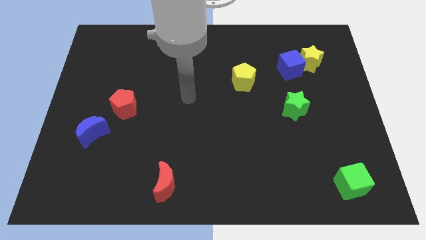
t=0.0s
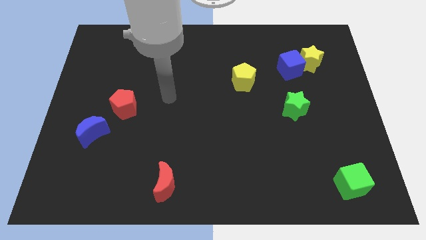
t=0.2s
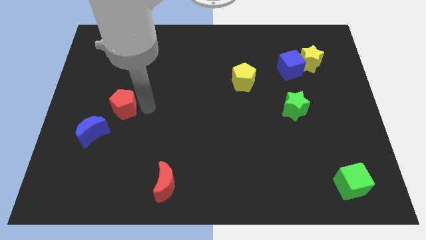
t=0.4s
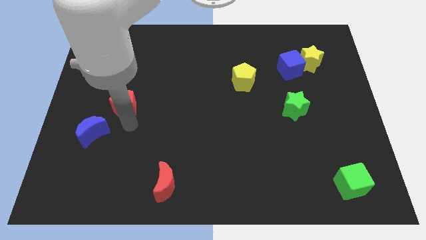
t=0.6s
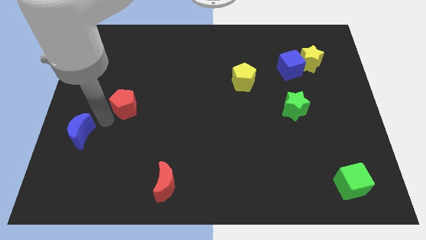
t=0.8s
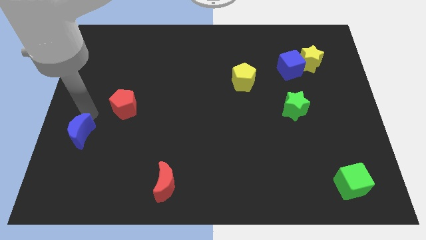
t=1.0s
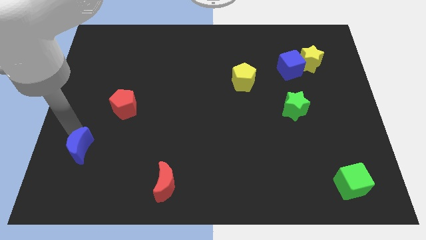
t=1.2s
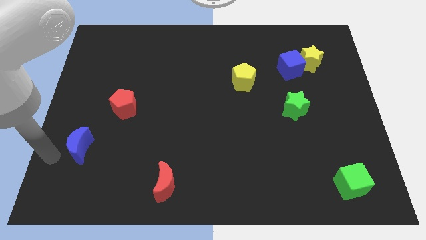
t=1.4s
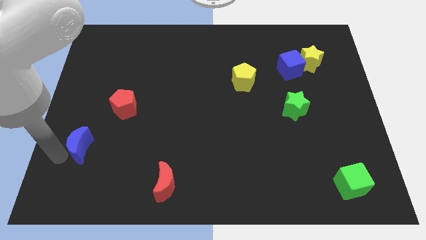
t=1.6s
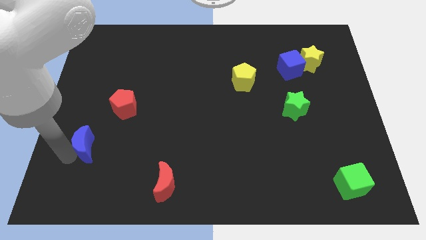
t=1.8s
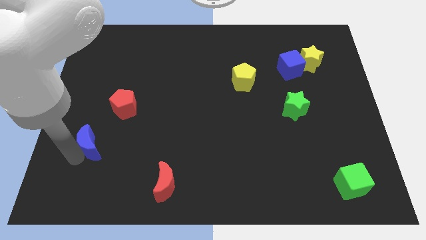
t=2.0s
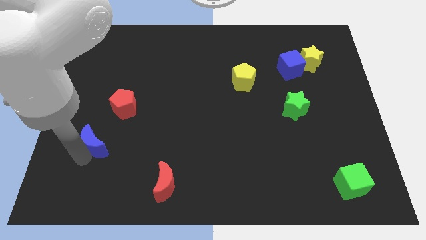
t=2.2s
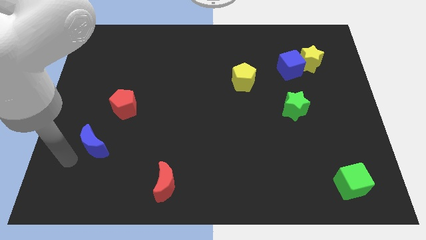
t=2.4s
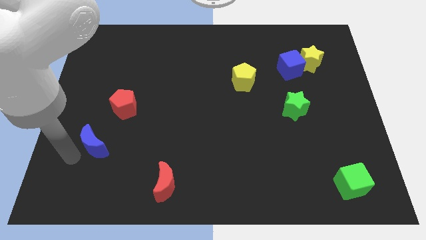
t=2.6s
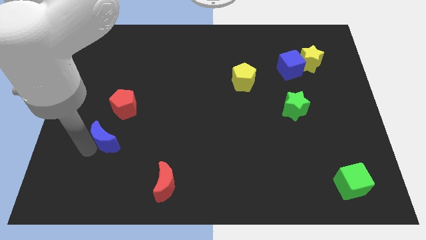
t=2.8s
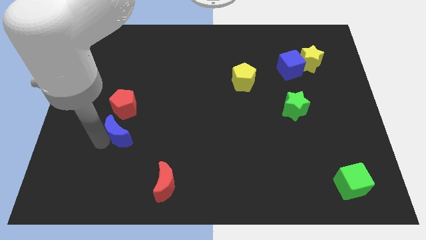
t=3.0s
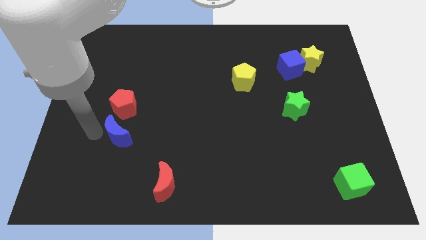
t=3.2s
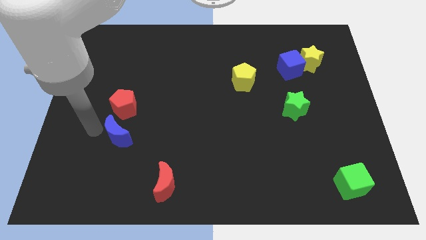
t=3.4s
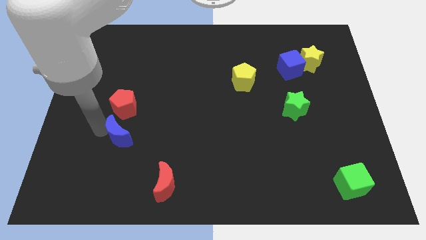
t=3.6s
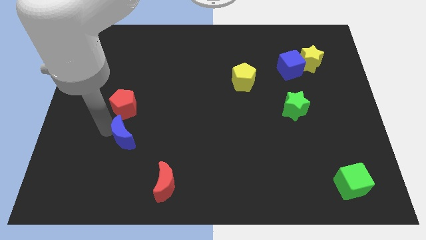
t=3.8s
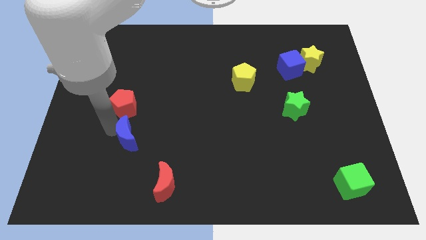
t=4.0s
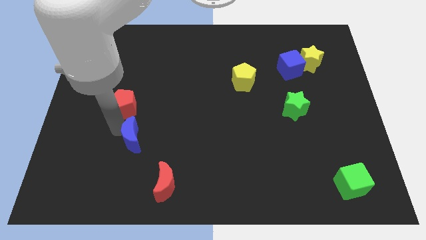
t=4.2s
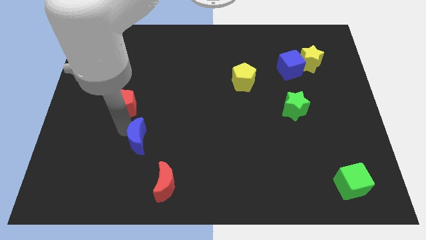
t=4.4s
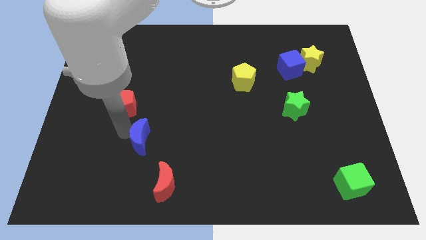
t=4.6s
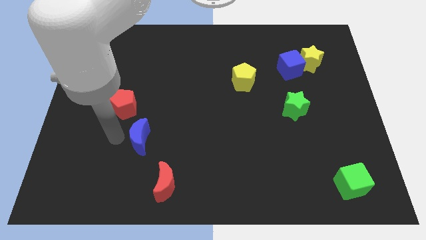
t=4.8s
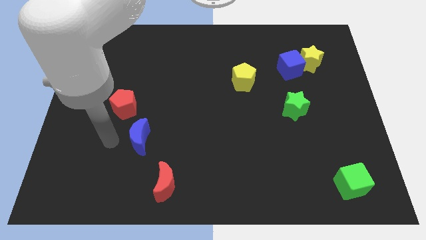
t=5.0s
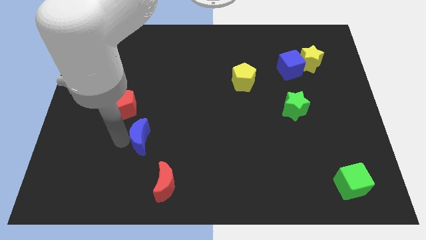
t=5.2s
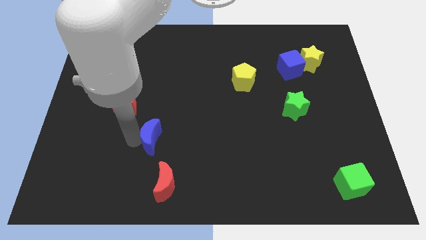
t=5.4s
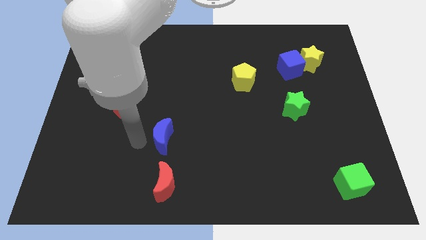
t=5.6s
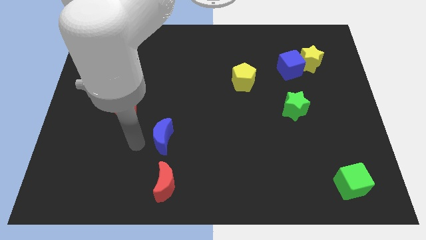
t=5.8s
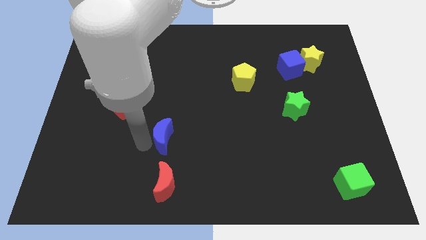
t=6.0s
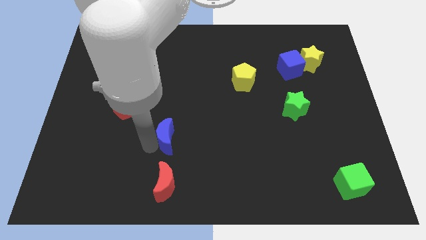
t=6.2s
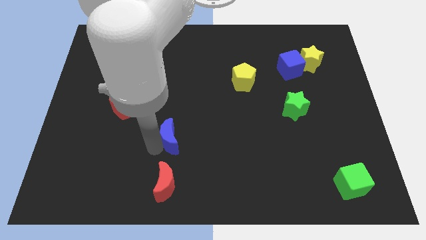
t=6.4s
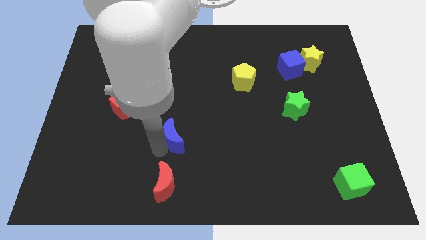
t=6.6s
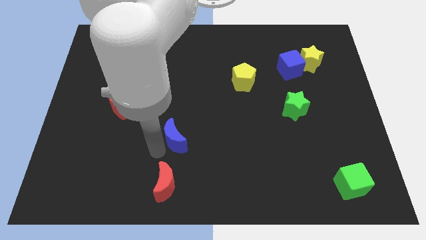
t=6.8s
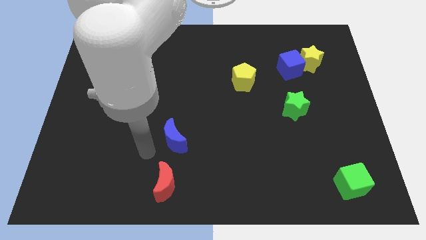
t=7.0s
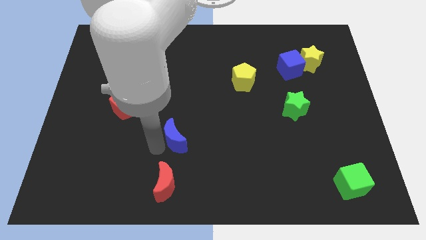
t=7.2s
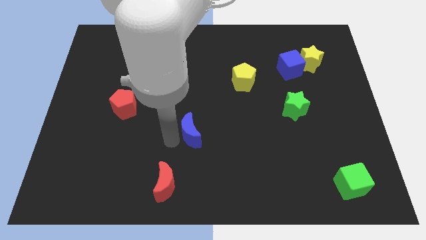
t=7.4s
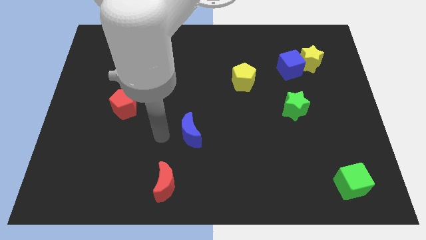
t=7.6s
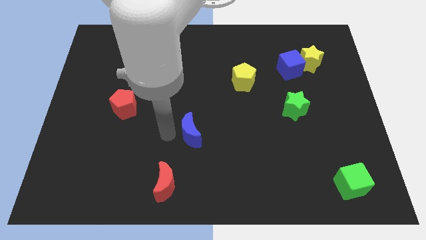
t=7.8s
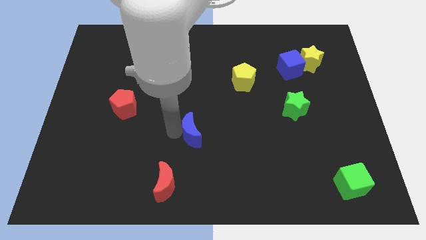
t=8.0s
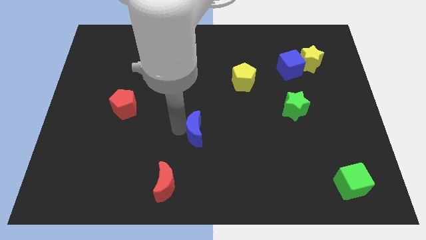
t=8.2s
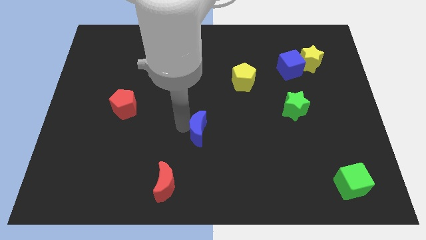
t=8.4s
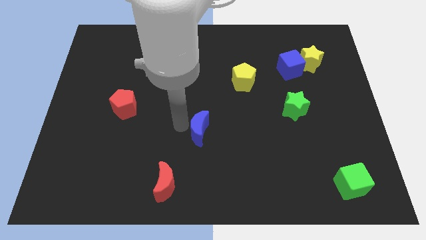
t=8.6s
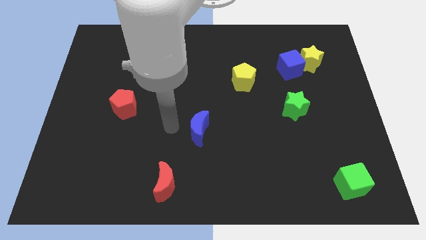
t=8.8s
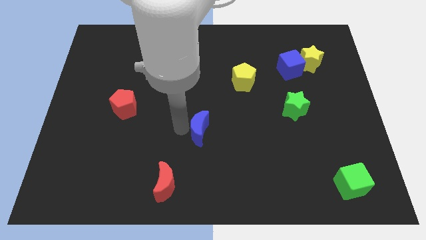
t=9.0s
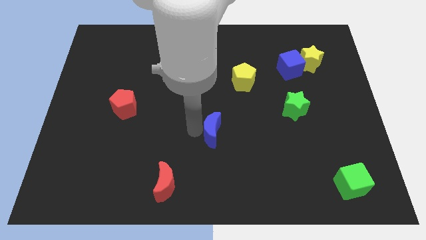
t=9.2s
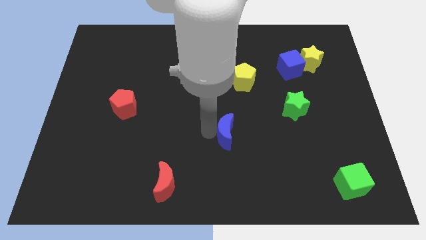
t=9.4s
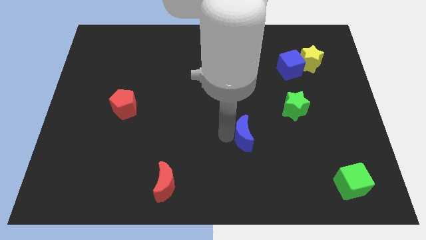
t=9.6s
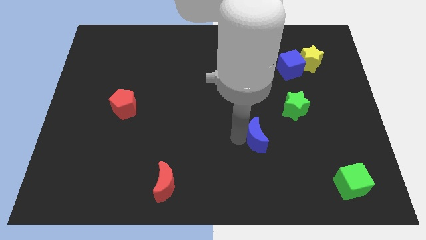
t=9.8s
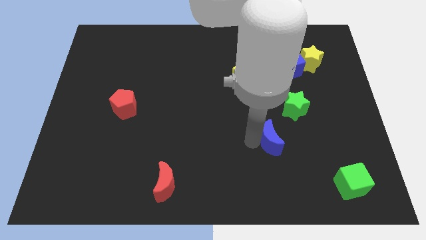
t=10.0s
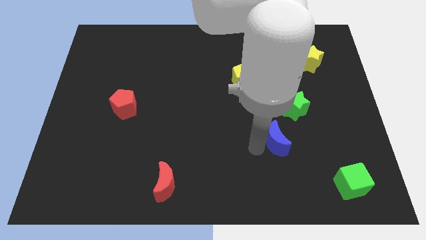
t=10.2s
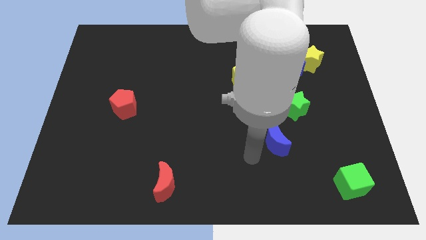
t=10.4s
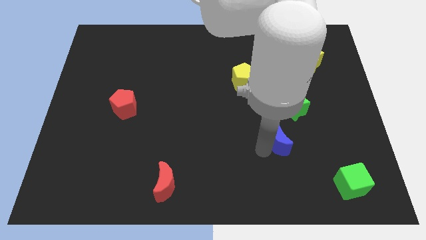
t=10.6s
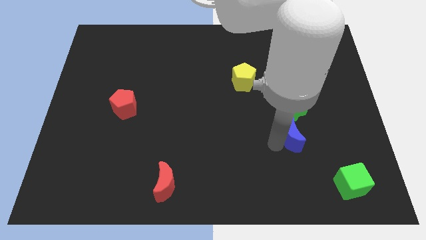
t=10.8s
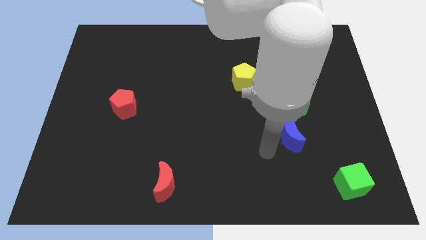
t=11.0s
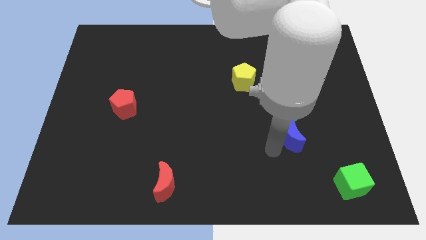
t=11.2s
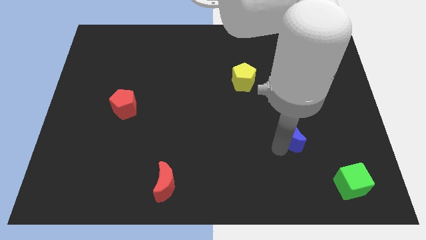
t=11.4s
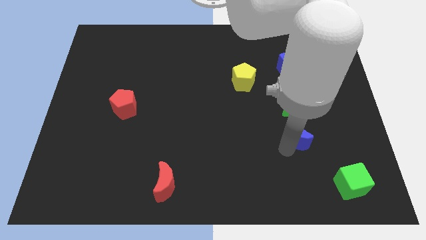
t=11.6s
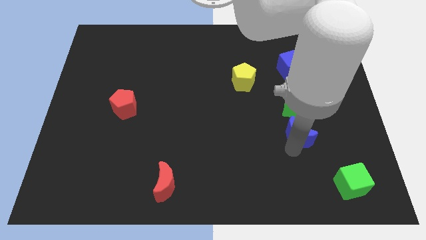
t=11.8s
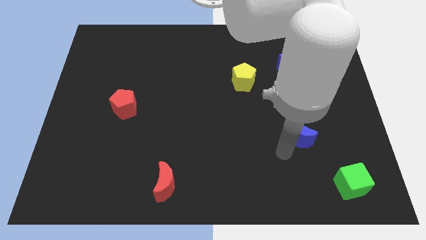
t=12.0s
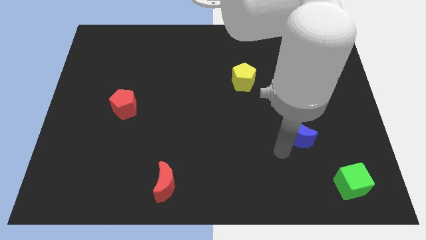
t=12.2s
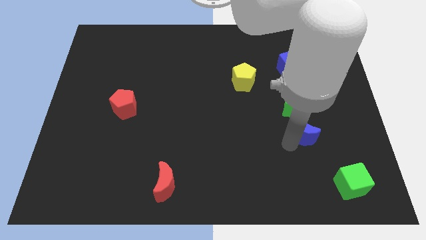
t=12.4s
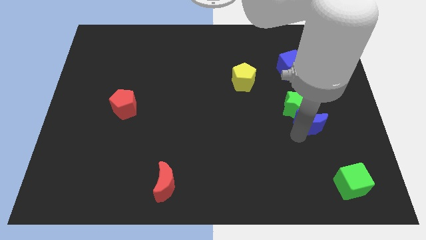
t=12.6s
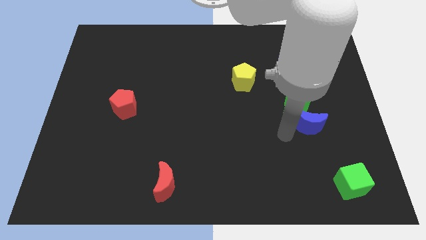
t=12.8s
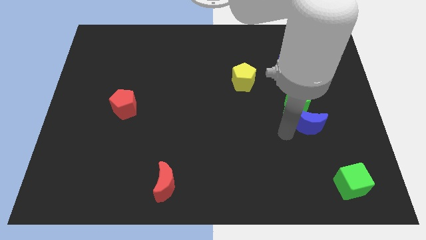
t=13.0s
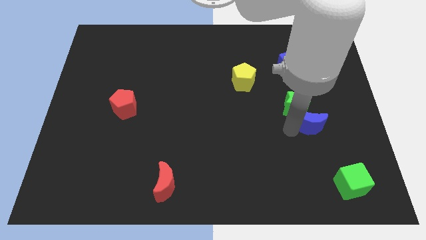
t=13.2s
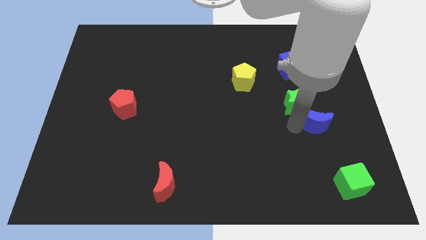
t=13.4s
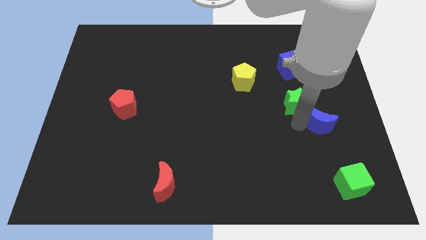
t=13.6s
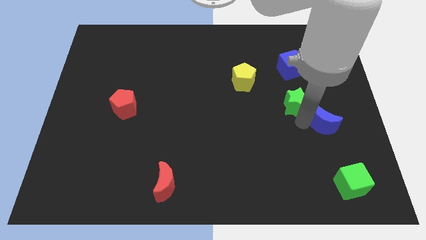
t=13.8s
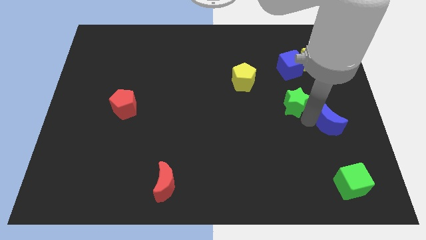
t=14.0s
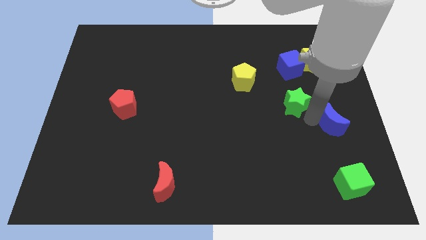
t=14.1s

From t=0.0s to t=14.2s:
slide the blue moon to the right side
